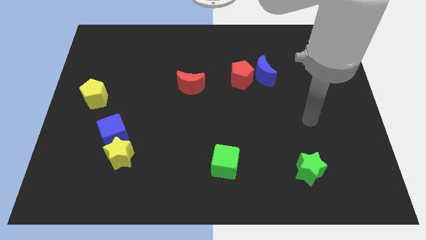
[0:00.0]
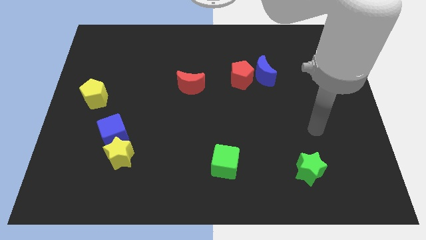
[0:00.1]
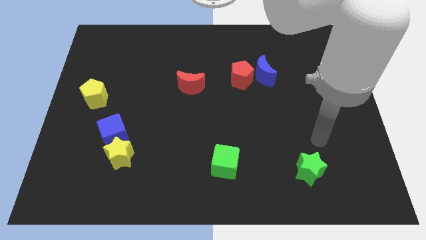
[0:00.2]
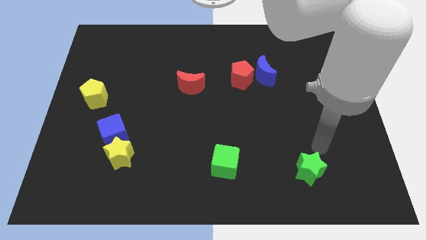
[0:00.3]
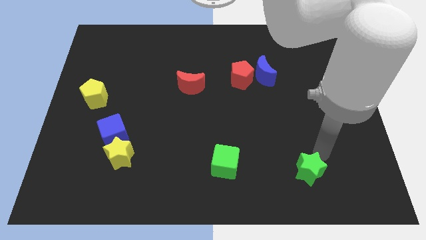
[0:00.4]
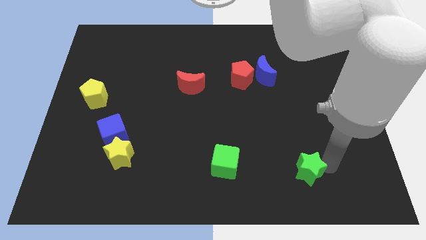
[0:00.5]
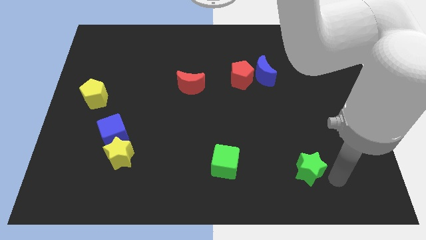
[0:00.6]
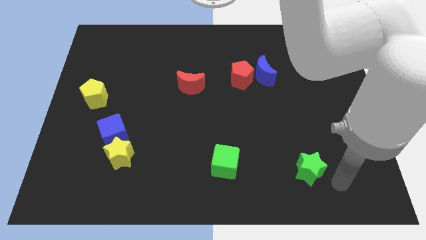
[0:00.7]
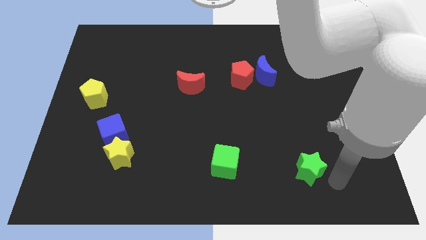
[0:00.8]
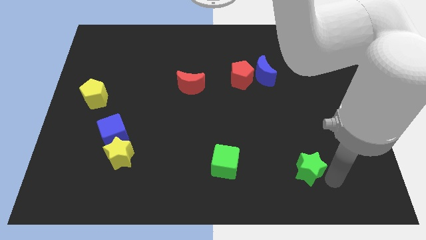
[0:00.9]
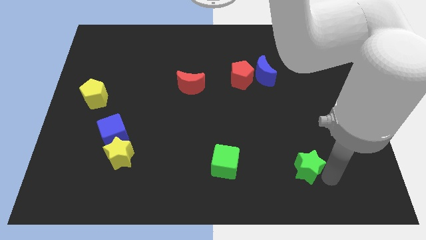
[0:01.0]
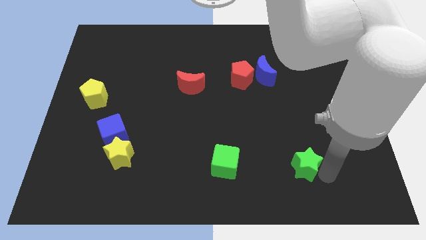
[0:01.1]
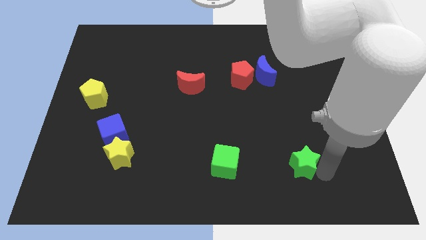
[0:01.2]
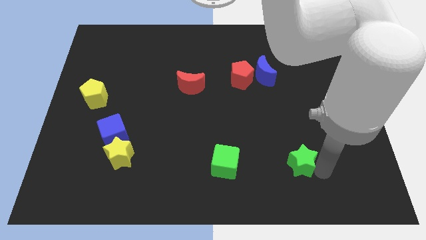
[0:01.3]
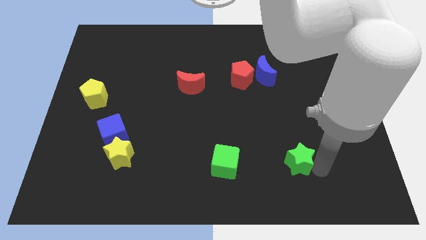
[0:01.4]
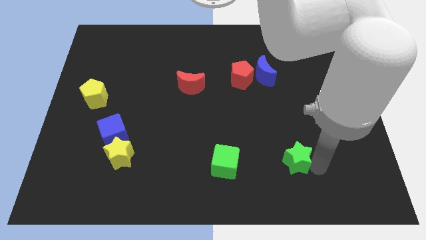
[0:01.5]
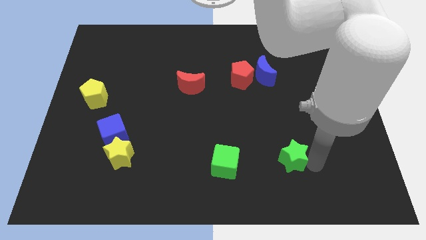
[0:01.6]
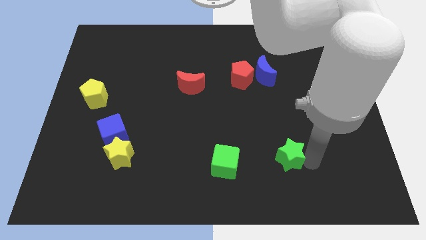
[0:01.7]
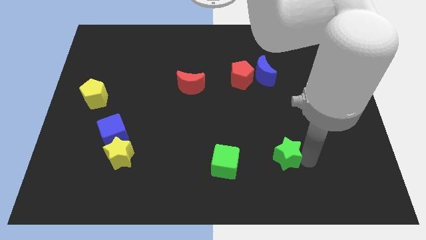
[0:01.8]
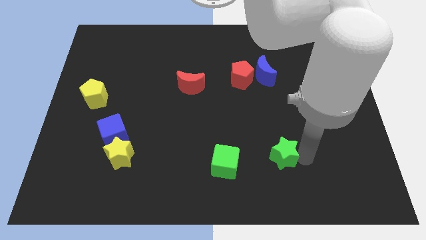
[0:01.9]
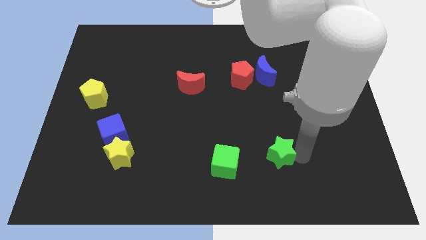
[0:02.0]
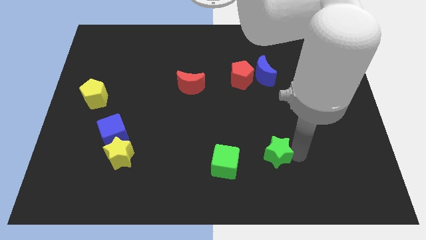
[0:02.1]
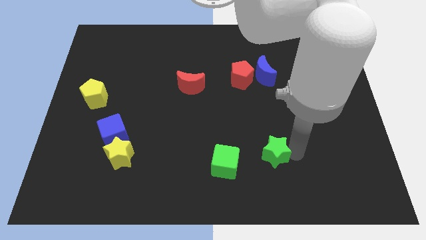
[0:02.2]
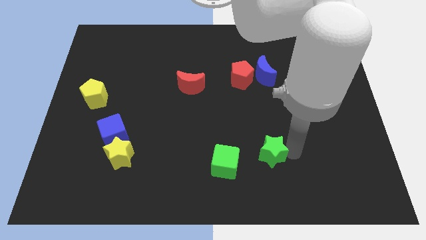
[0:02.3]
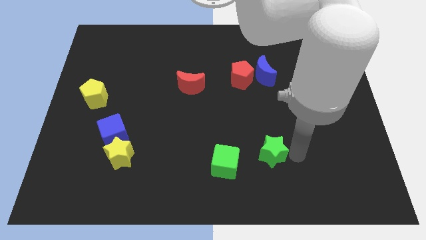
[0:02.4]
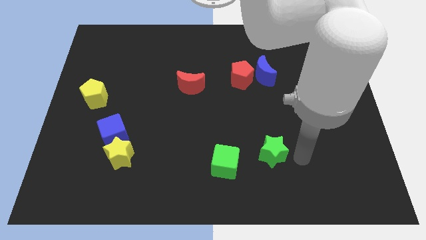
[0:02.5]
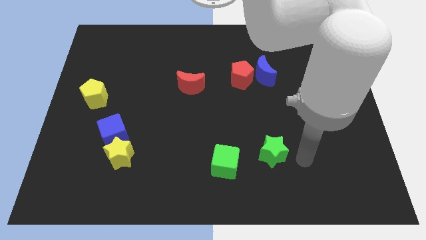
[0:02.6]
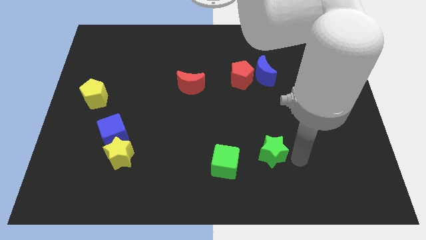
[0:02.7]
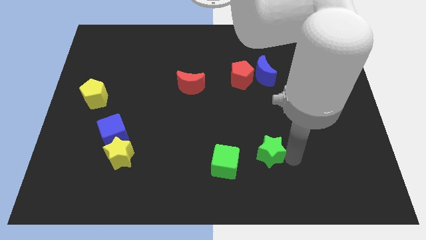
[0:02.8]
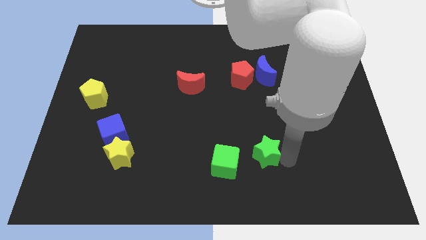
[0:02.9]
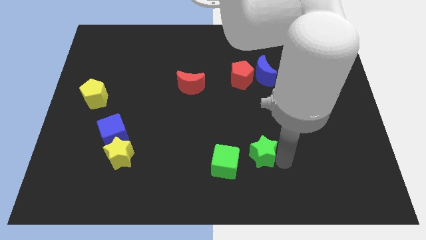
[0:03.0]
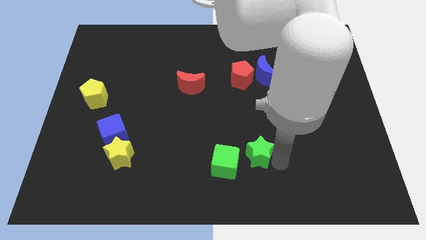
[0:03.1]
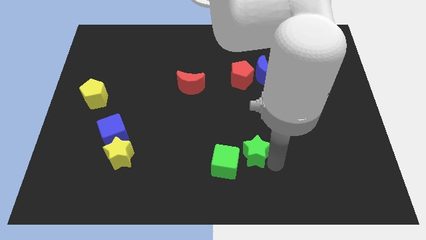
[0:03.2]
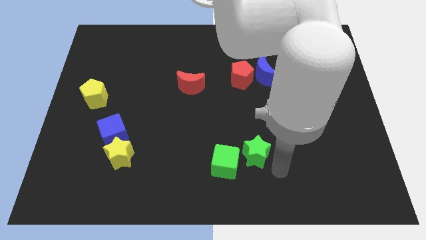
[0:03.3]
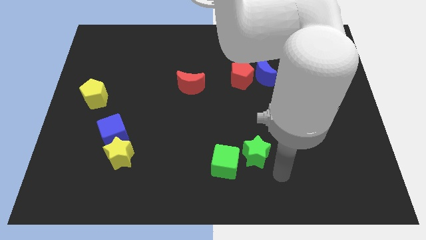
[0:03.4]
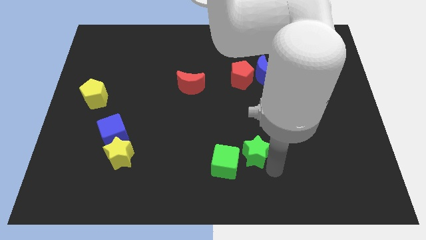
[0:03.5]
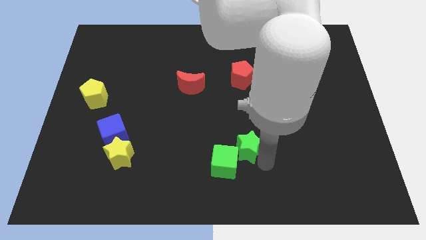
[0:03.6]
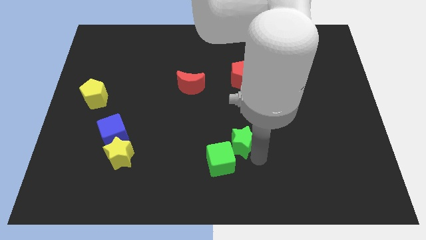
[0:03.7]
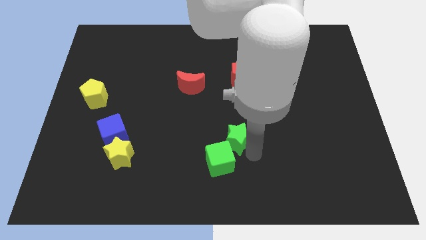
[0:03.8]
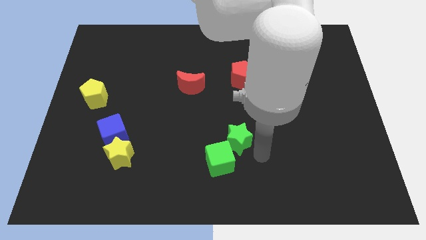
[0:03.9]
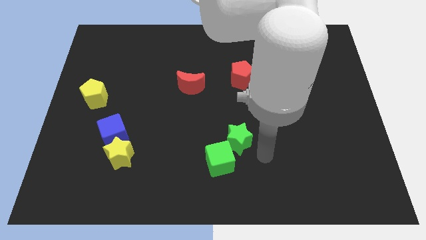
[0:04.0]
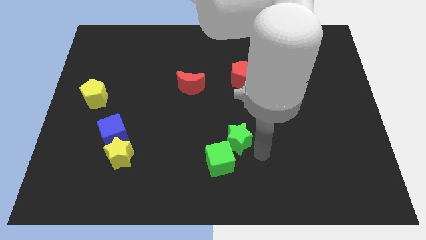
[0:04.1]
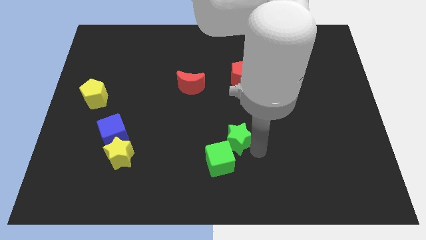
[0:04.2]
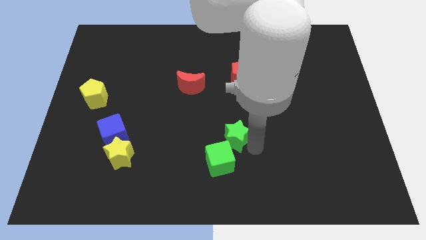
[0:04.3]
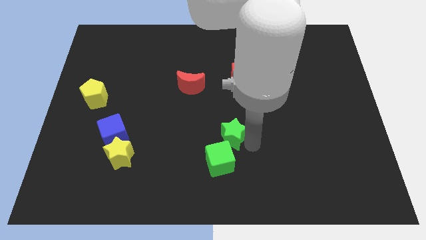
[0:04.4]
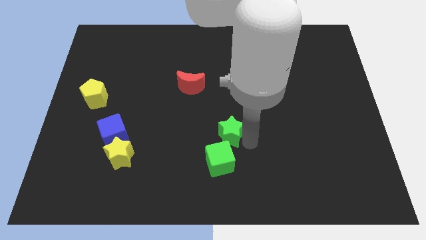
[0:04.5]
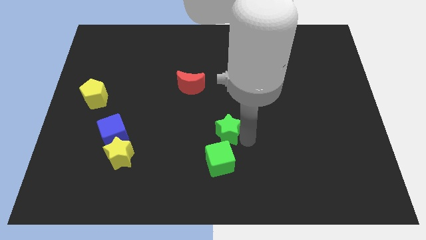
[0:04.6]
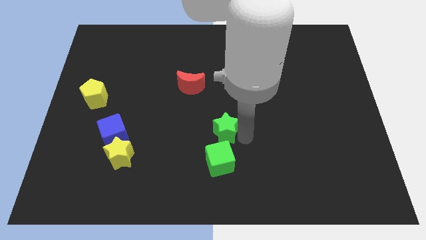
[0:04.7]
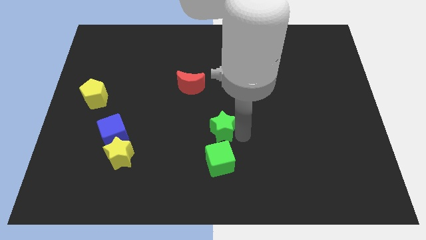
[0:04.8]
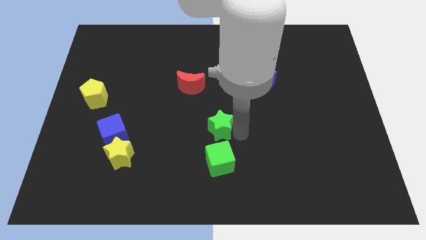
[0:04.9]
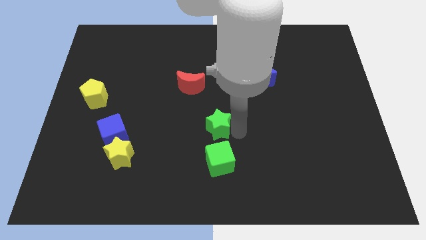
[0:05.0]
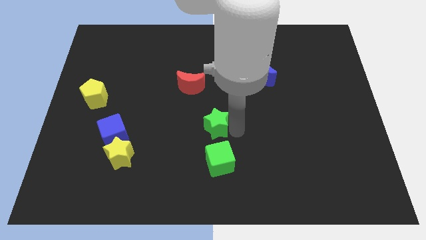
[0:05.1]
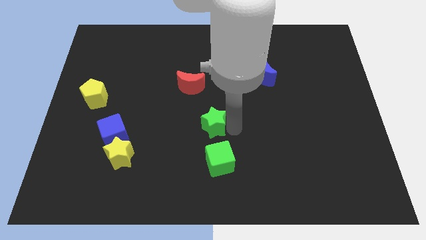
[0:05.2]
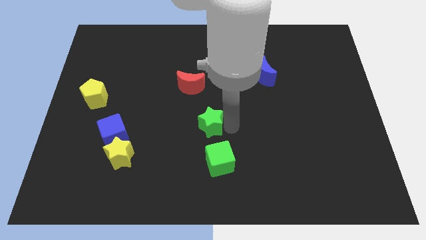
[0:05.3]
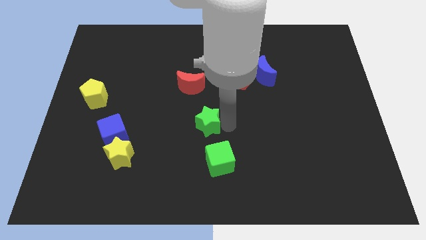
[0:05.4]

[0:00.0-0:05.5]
put the green star below the red moon

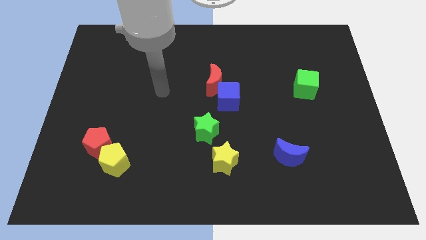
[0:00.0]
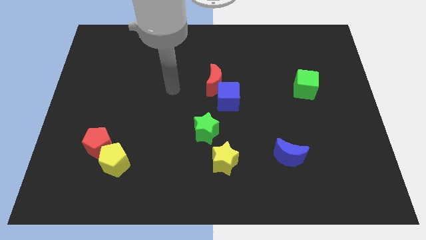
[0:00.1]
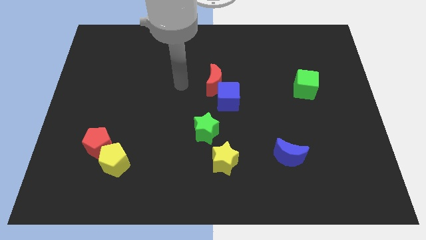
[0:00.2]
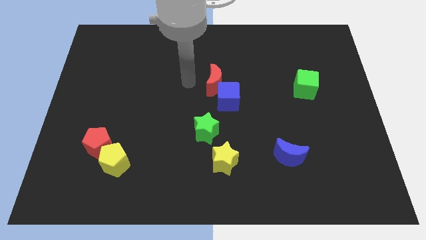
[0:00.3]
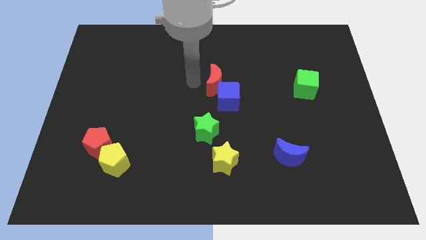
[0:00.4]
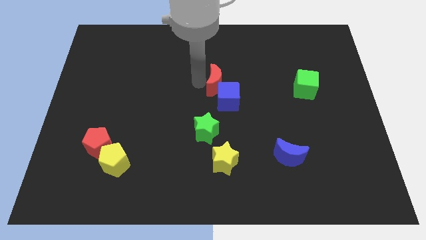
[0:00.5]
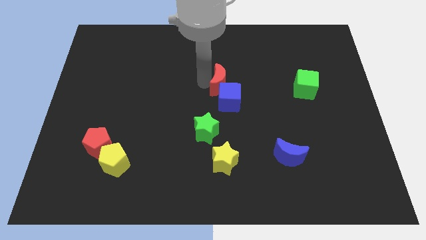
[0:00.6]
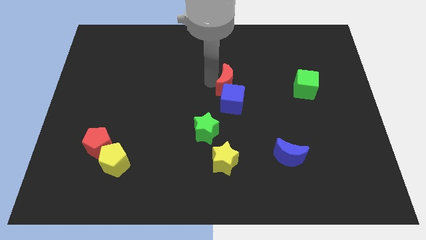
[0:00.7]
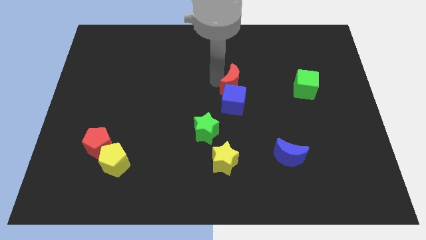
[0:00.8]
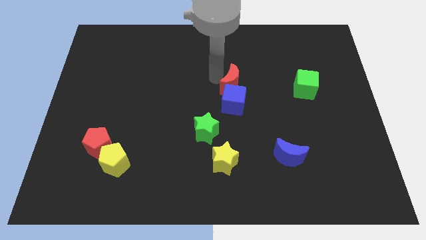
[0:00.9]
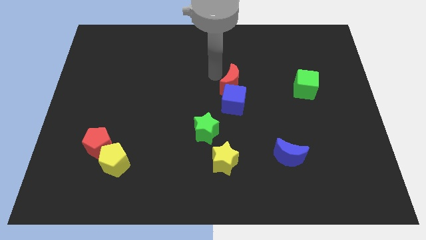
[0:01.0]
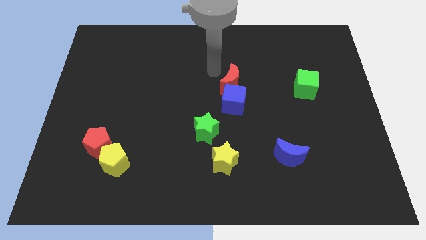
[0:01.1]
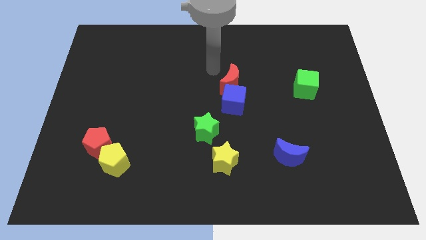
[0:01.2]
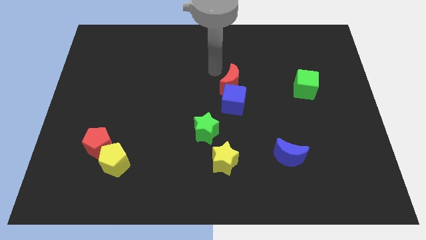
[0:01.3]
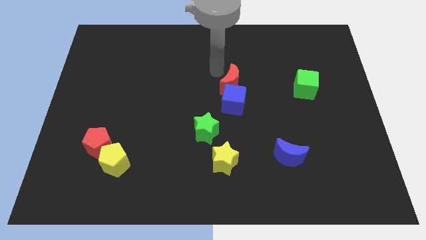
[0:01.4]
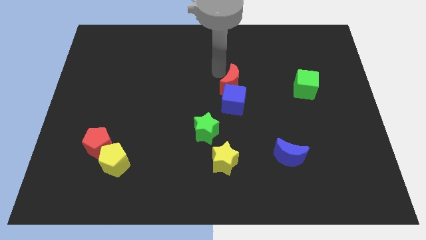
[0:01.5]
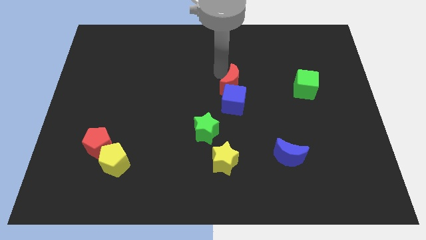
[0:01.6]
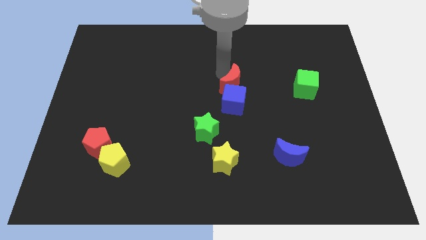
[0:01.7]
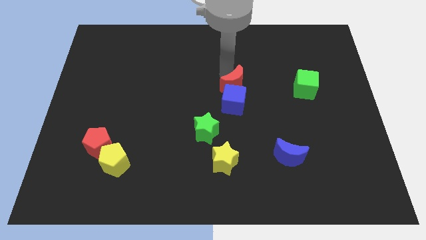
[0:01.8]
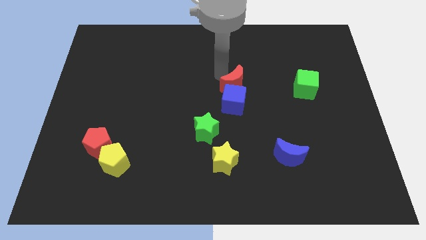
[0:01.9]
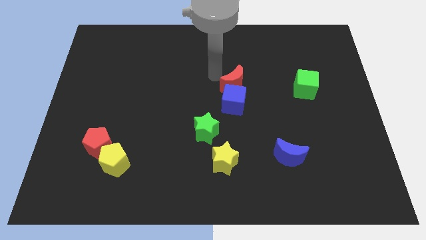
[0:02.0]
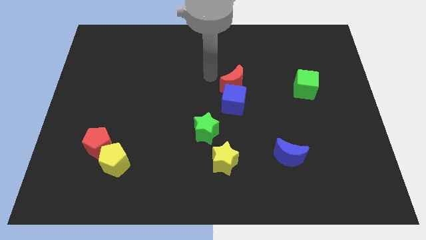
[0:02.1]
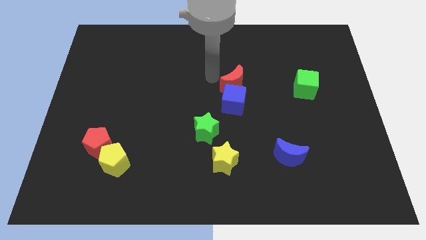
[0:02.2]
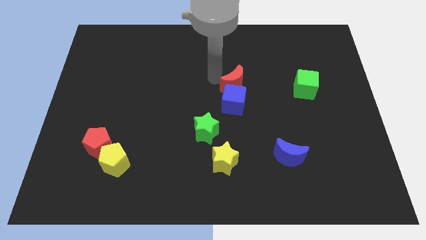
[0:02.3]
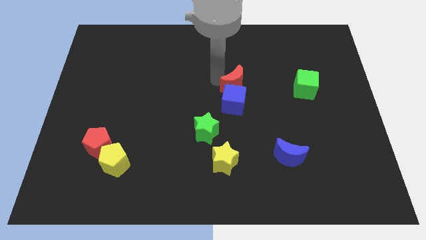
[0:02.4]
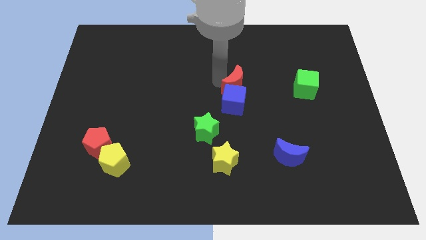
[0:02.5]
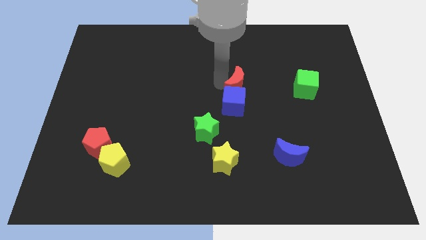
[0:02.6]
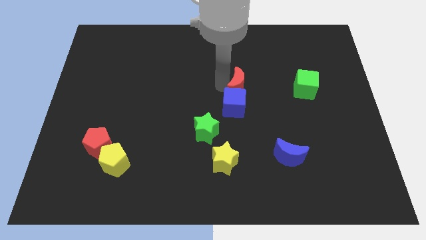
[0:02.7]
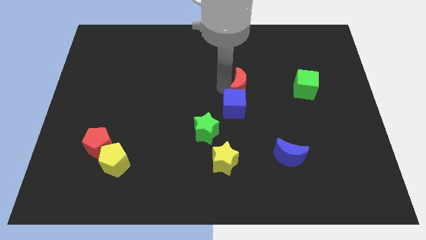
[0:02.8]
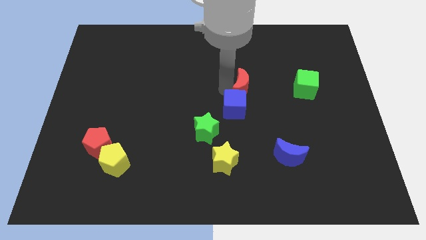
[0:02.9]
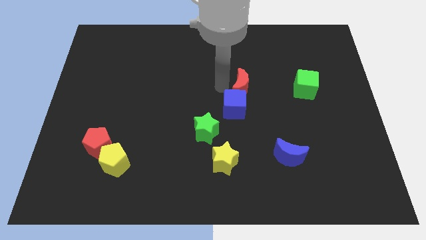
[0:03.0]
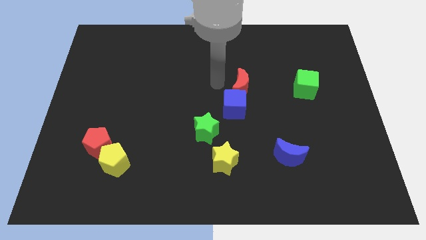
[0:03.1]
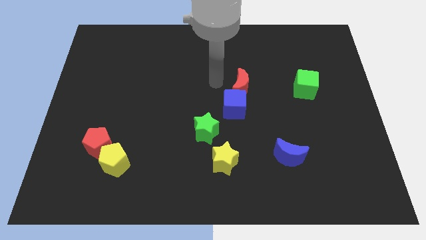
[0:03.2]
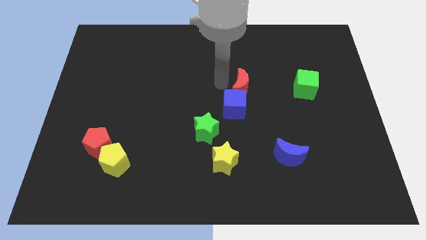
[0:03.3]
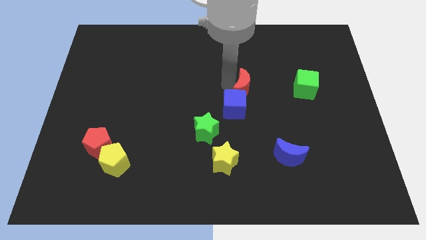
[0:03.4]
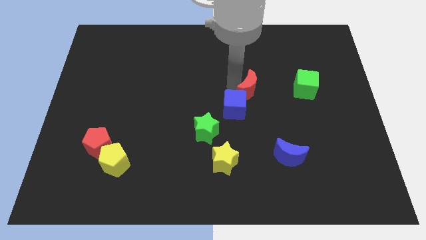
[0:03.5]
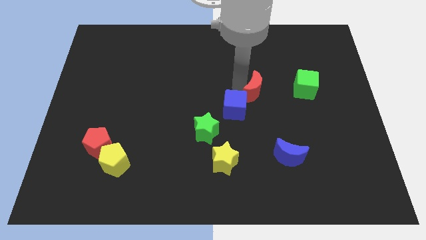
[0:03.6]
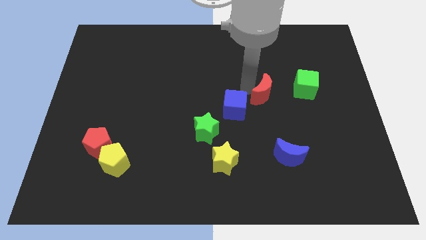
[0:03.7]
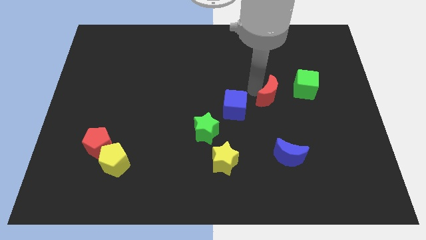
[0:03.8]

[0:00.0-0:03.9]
push the red moon to the bottom left of the green cube
